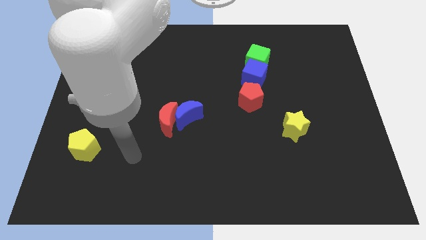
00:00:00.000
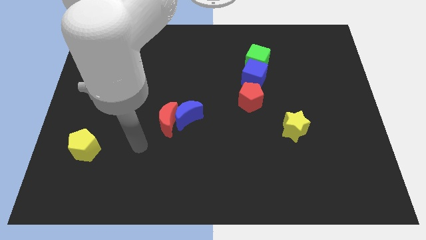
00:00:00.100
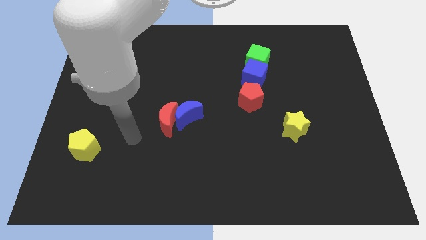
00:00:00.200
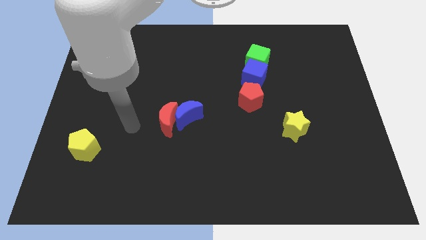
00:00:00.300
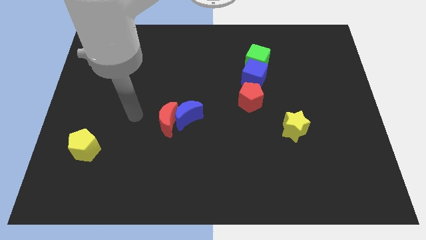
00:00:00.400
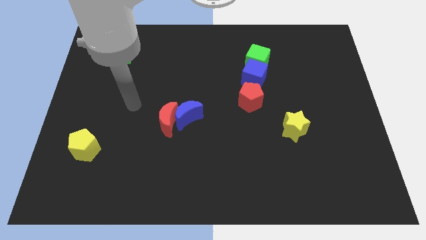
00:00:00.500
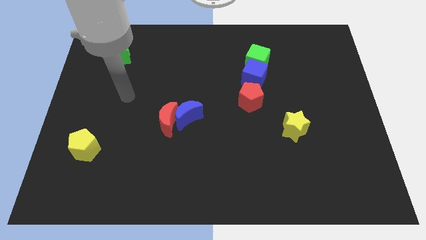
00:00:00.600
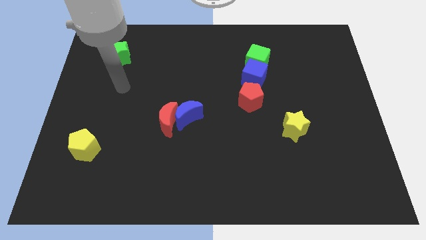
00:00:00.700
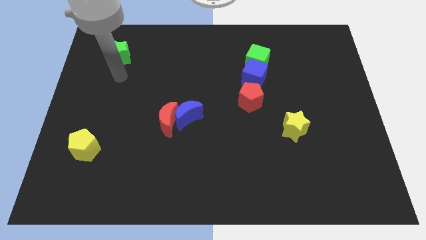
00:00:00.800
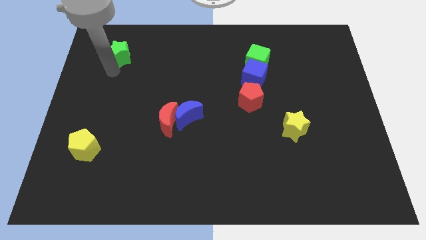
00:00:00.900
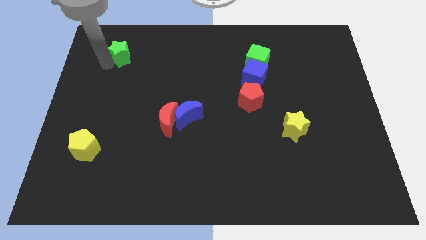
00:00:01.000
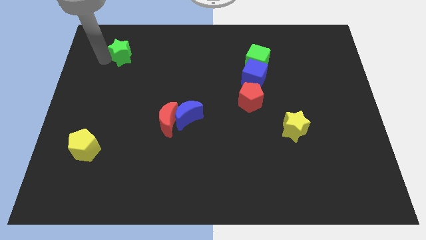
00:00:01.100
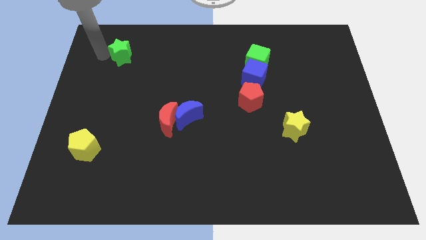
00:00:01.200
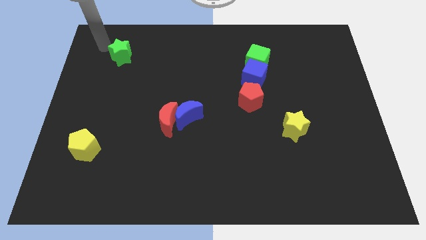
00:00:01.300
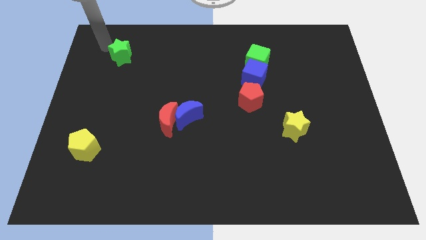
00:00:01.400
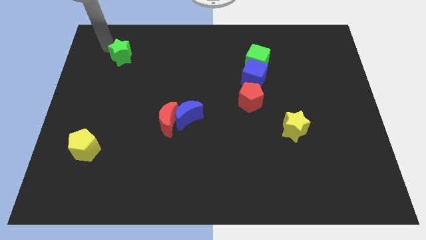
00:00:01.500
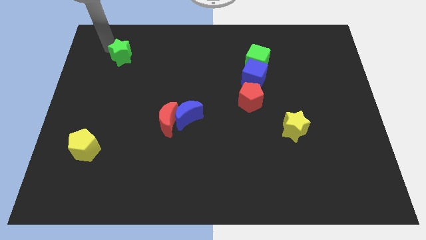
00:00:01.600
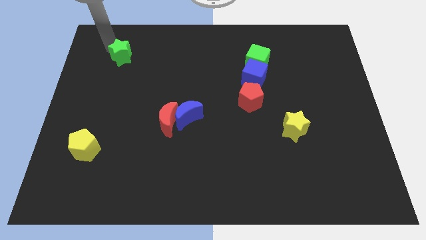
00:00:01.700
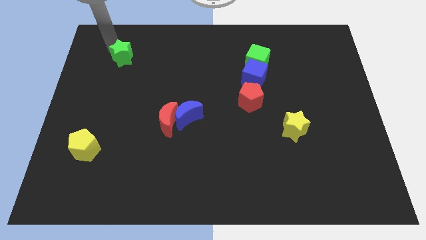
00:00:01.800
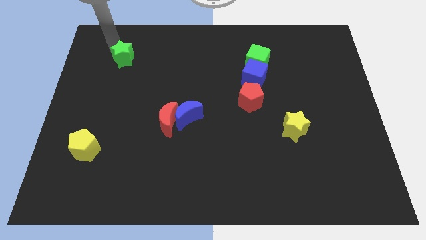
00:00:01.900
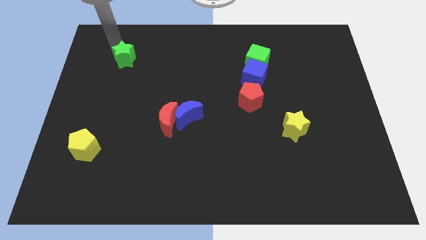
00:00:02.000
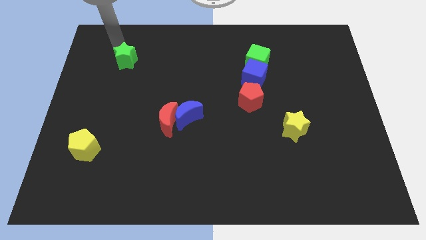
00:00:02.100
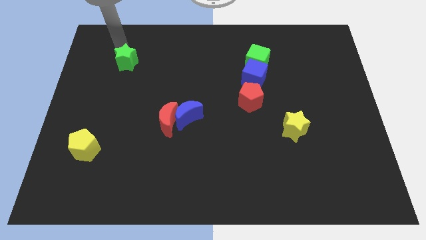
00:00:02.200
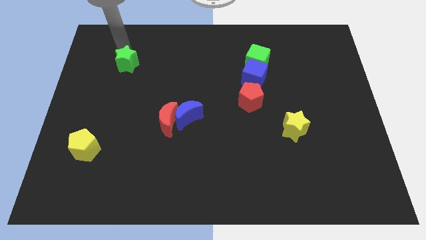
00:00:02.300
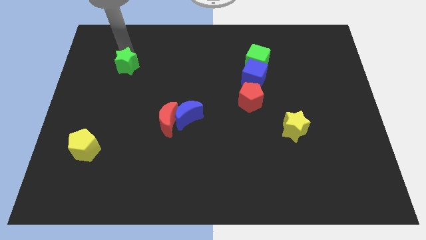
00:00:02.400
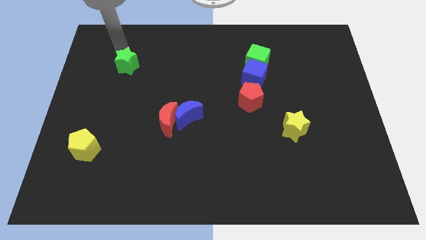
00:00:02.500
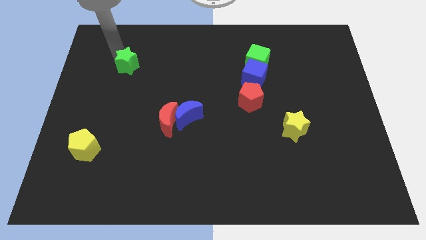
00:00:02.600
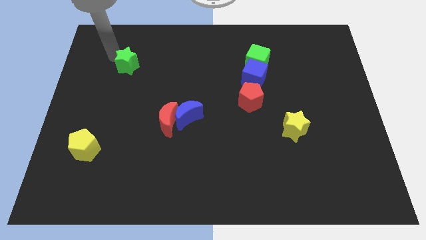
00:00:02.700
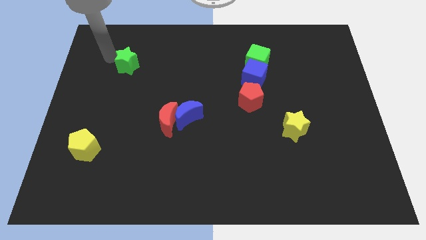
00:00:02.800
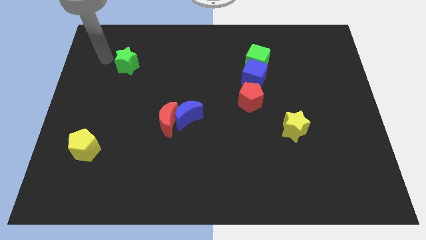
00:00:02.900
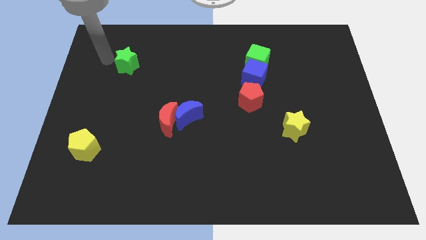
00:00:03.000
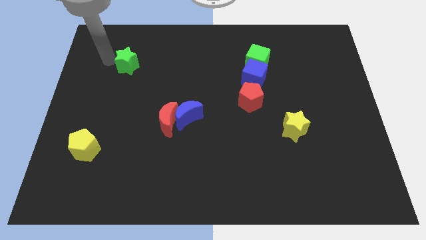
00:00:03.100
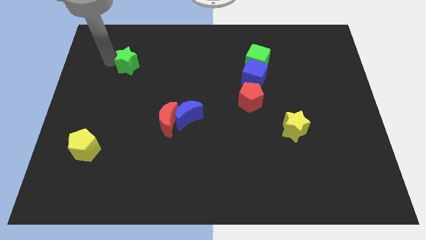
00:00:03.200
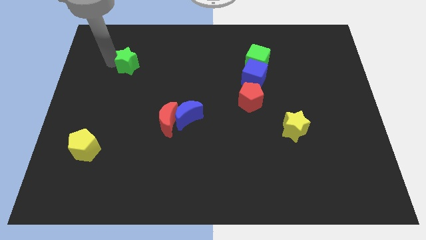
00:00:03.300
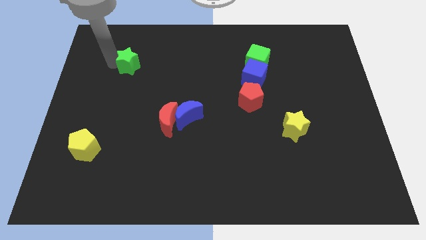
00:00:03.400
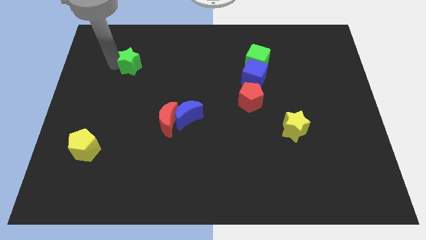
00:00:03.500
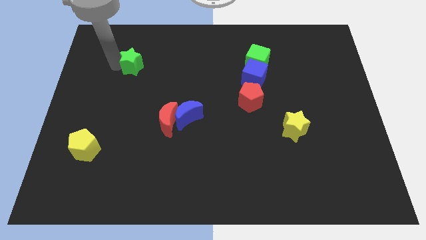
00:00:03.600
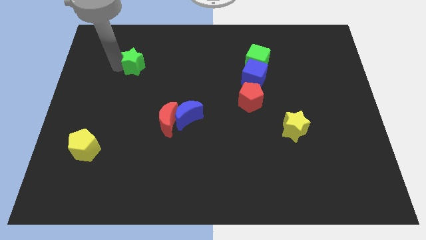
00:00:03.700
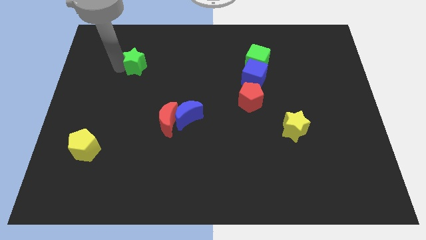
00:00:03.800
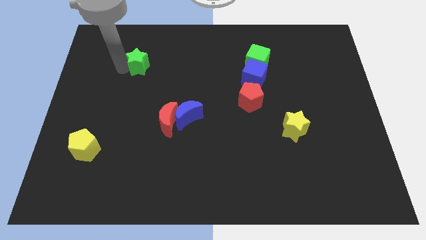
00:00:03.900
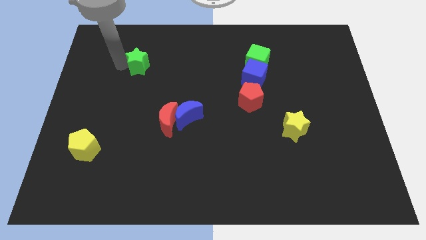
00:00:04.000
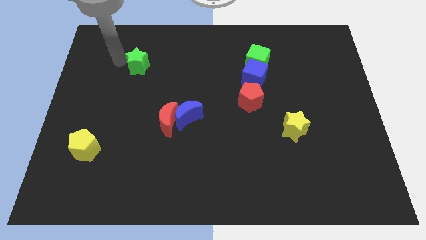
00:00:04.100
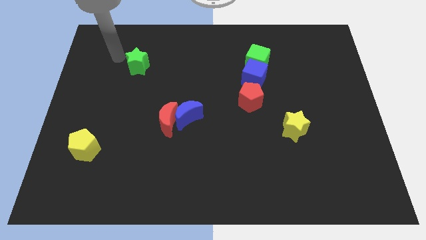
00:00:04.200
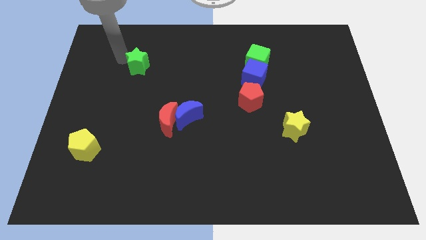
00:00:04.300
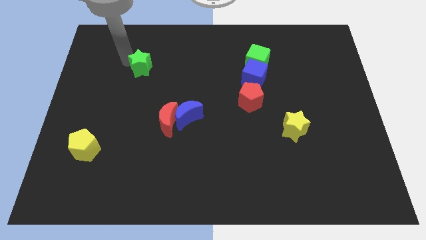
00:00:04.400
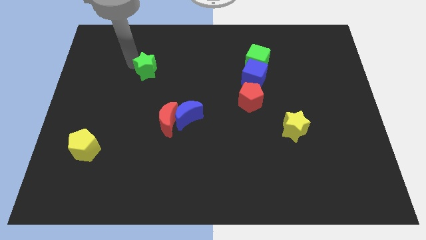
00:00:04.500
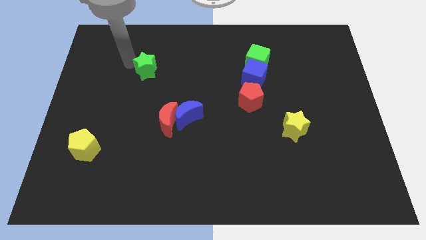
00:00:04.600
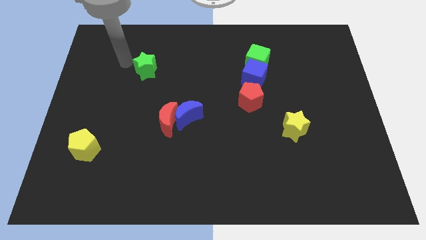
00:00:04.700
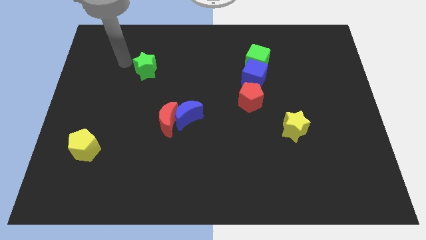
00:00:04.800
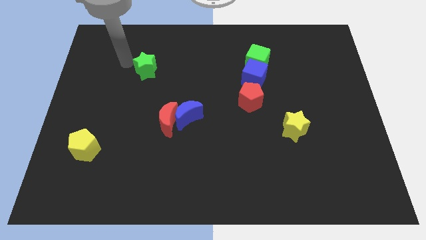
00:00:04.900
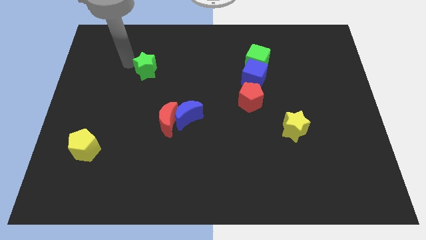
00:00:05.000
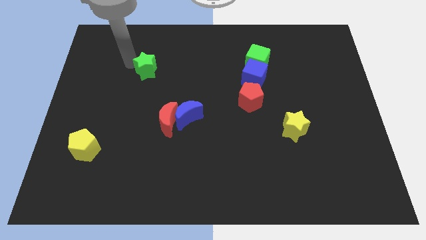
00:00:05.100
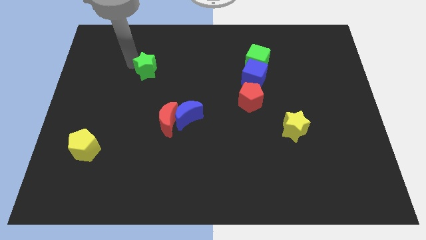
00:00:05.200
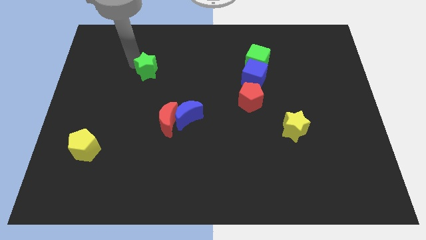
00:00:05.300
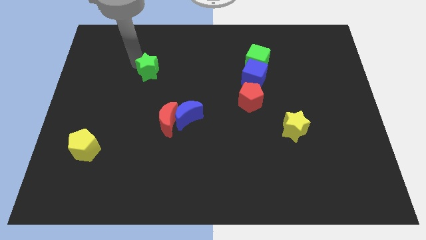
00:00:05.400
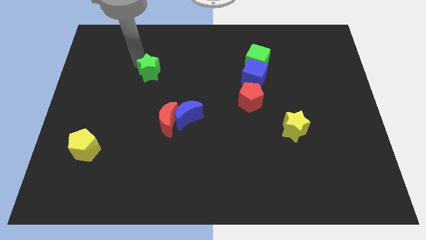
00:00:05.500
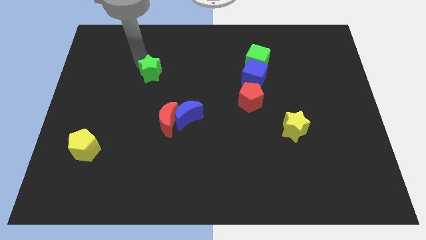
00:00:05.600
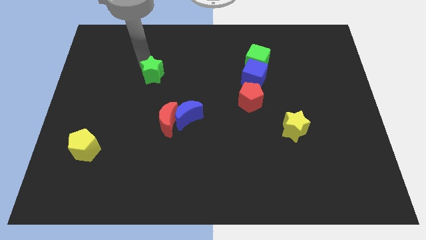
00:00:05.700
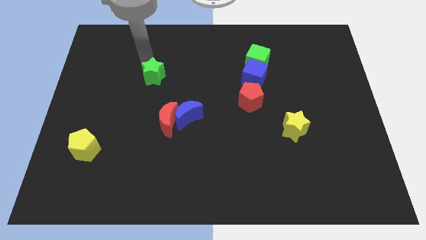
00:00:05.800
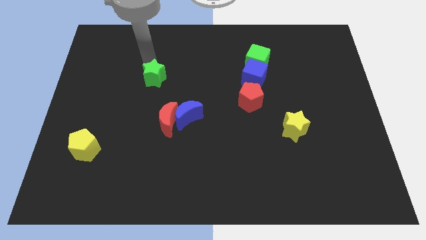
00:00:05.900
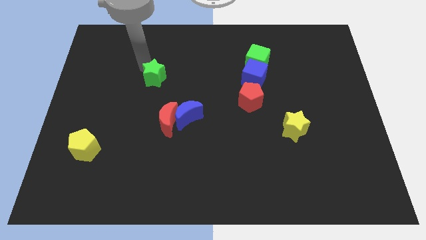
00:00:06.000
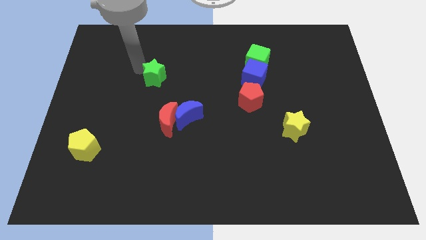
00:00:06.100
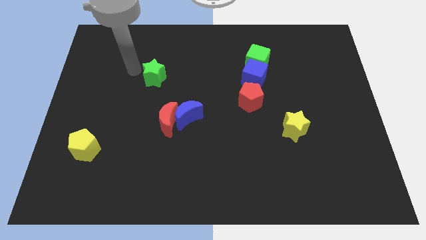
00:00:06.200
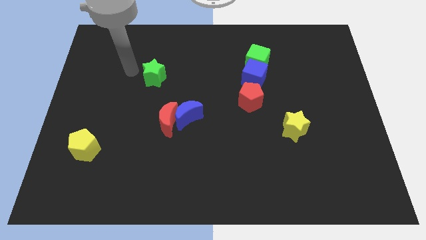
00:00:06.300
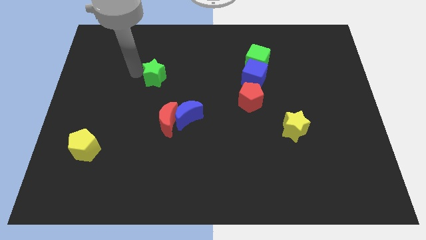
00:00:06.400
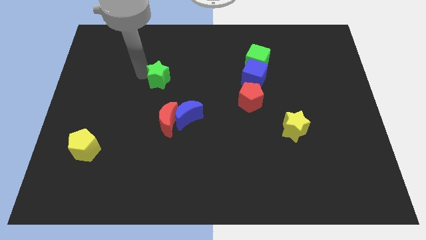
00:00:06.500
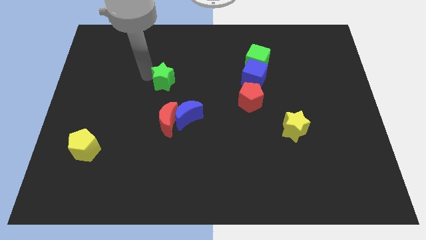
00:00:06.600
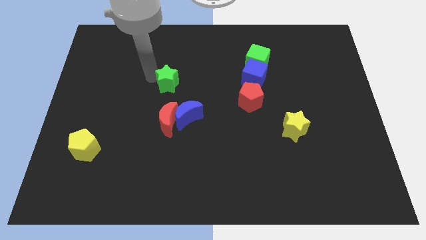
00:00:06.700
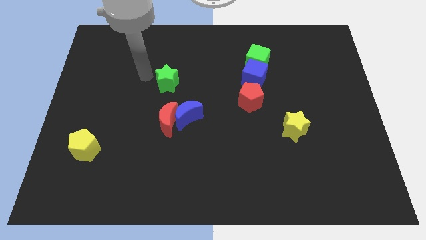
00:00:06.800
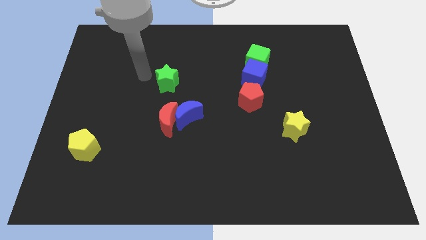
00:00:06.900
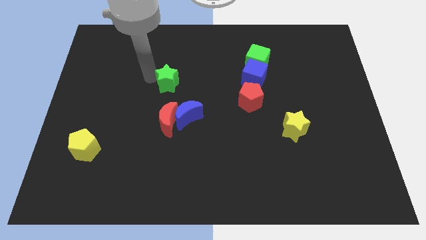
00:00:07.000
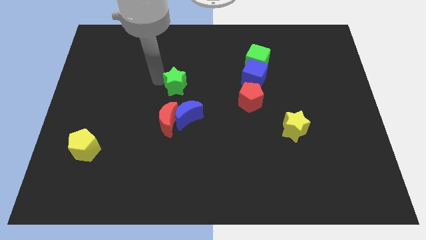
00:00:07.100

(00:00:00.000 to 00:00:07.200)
slide the green star to the center of the board

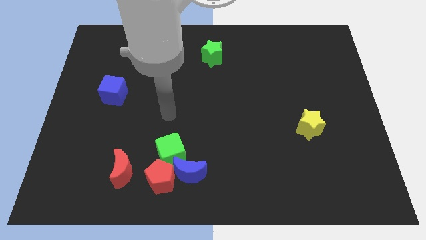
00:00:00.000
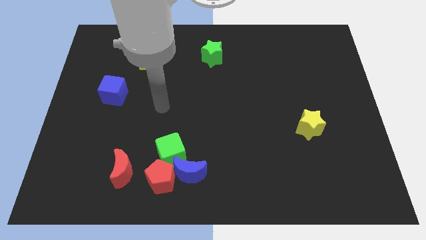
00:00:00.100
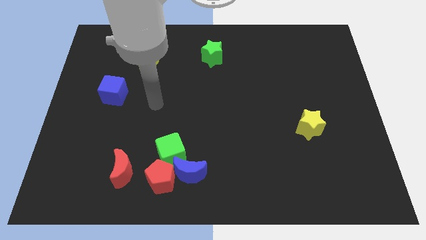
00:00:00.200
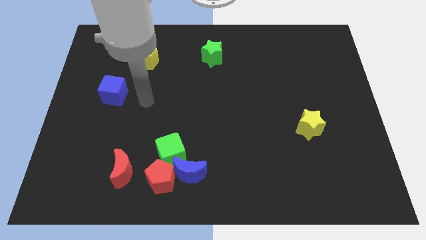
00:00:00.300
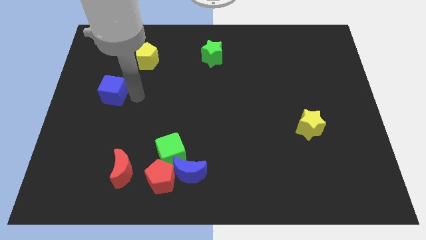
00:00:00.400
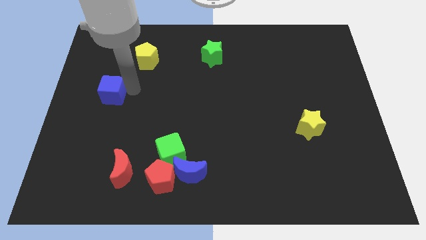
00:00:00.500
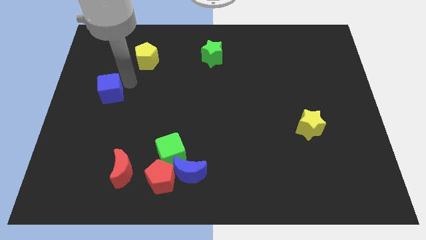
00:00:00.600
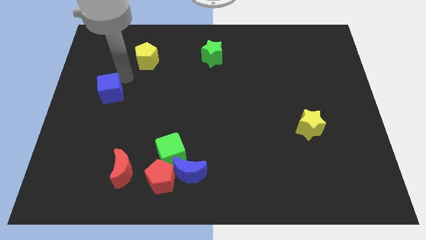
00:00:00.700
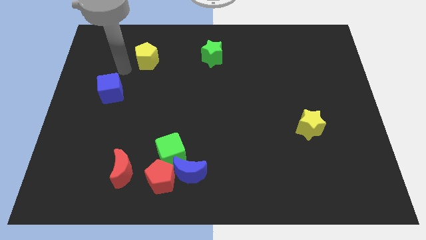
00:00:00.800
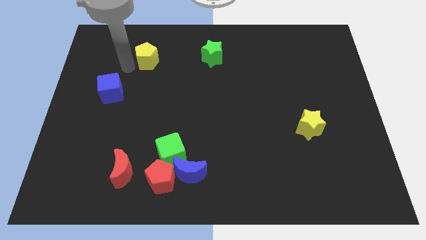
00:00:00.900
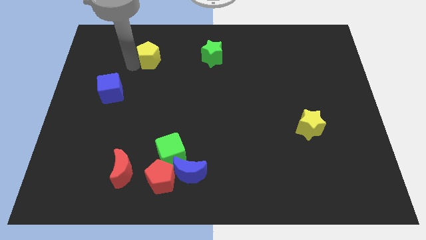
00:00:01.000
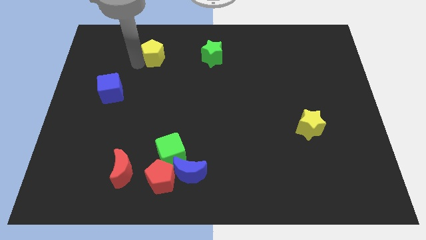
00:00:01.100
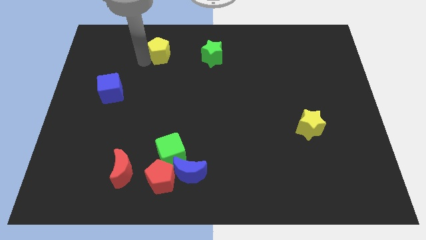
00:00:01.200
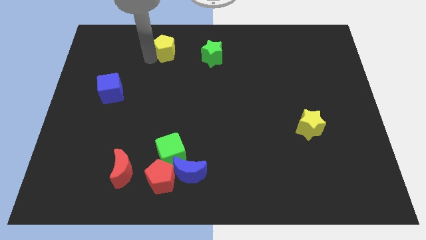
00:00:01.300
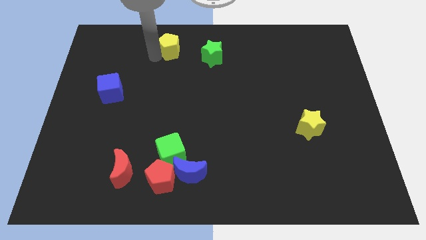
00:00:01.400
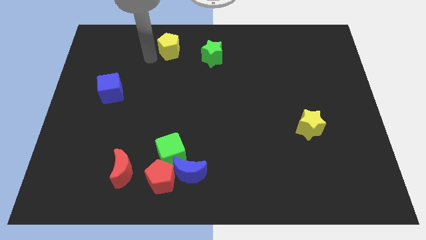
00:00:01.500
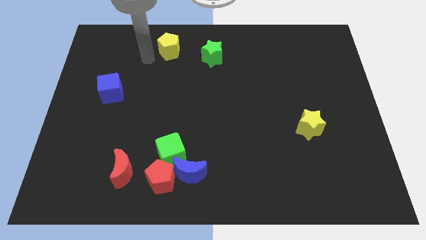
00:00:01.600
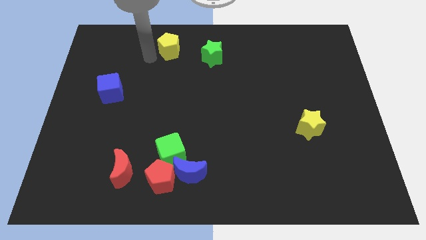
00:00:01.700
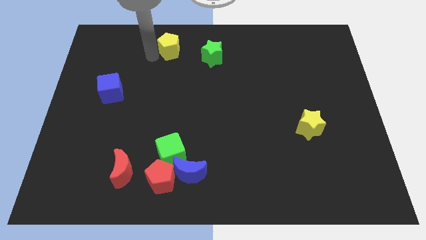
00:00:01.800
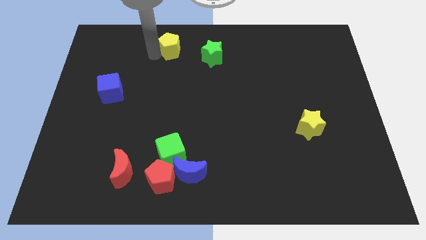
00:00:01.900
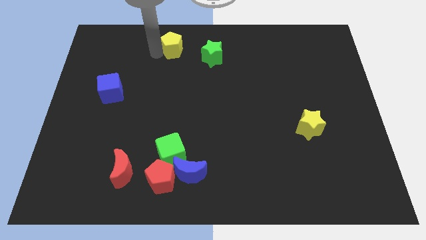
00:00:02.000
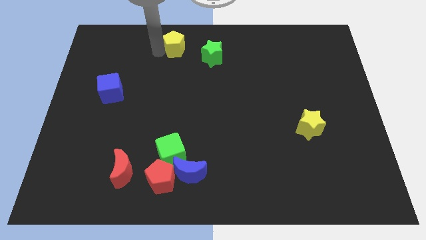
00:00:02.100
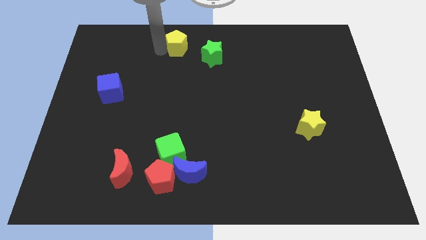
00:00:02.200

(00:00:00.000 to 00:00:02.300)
slide the yellow pentagon to the top side
